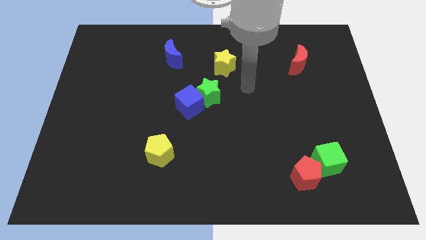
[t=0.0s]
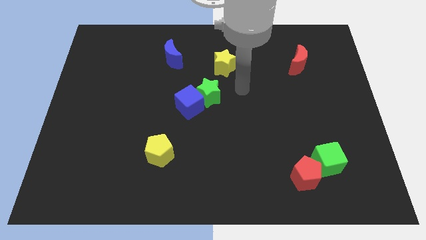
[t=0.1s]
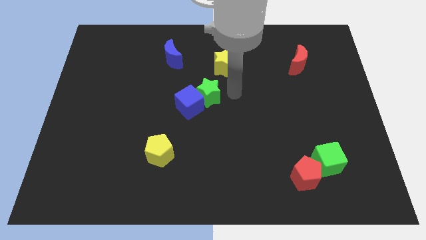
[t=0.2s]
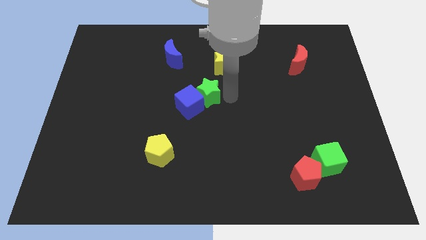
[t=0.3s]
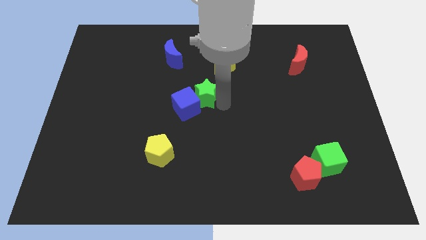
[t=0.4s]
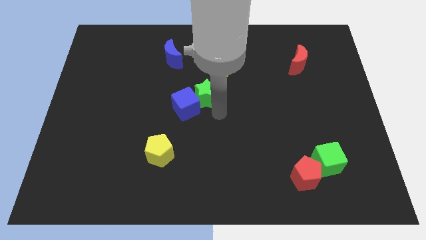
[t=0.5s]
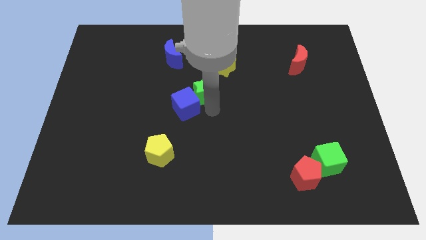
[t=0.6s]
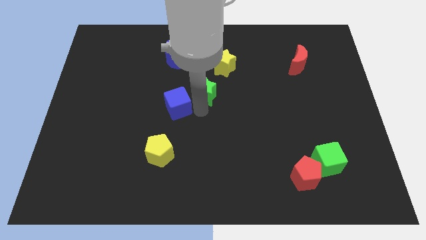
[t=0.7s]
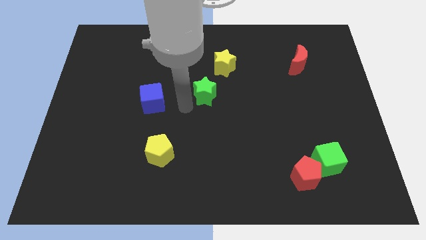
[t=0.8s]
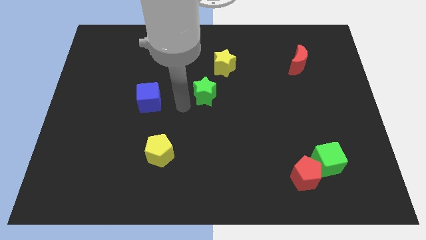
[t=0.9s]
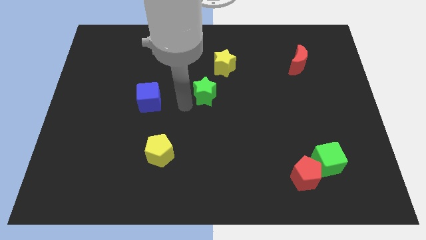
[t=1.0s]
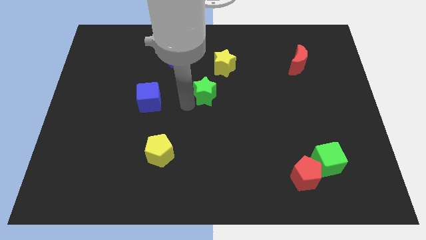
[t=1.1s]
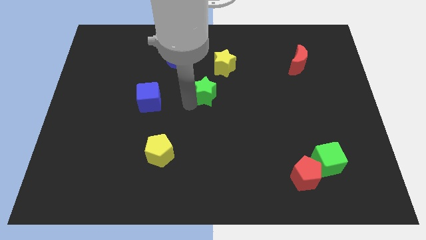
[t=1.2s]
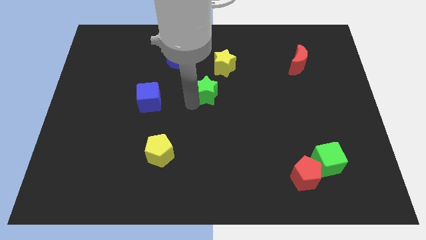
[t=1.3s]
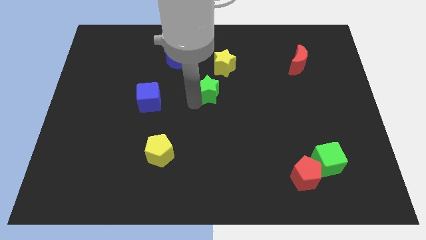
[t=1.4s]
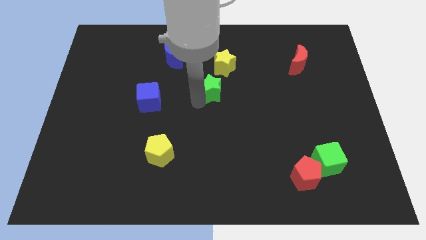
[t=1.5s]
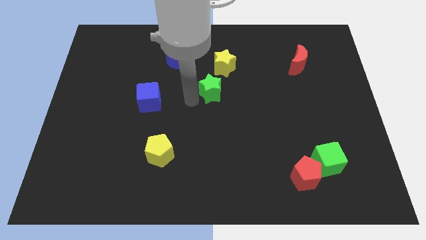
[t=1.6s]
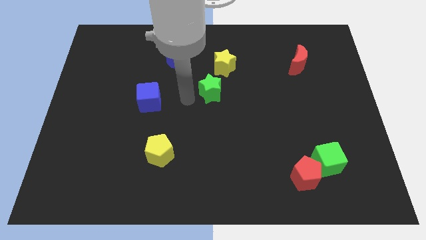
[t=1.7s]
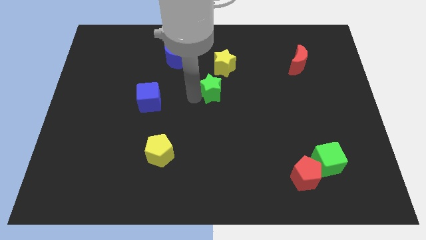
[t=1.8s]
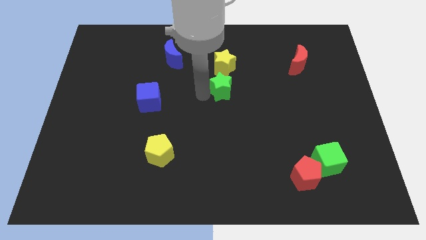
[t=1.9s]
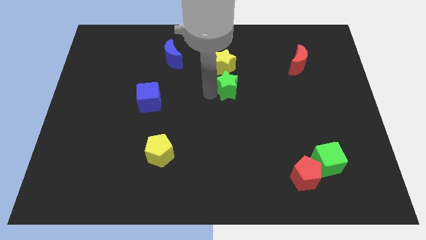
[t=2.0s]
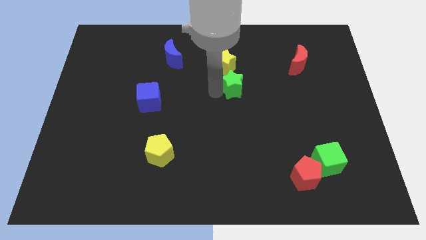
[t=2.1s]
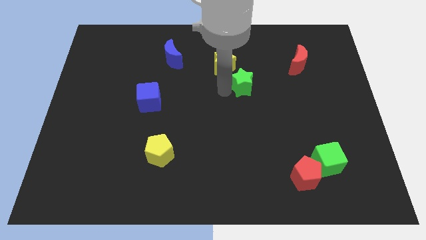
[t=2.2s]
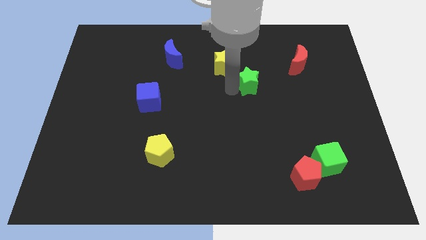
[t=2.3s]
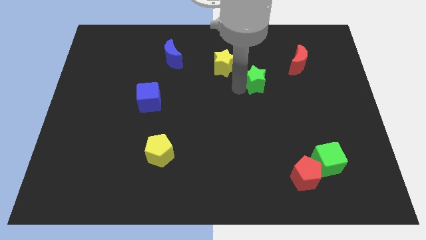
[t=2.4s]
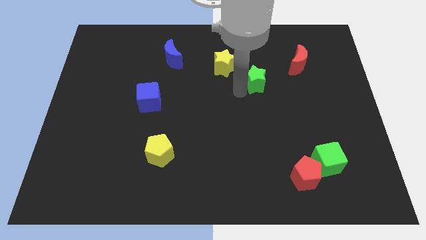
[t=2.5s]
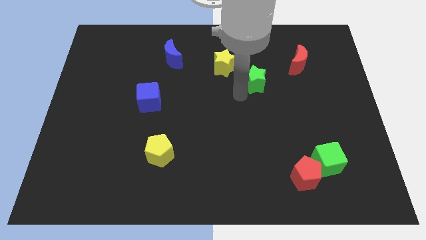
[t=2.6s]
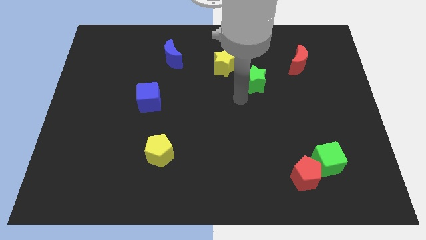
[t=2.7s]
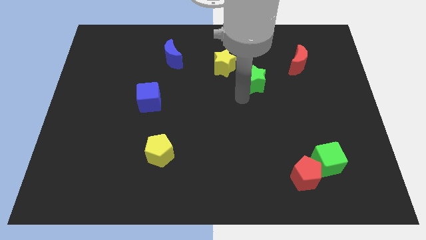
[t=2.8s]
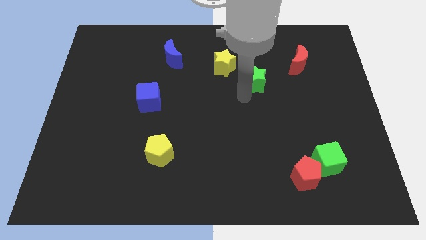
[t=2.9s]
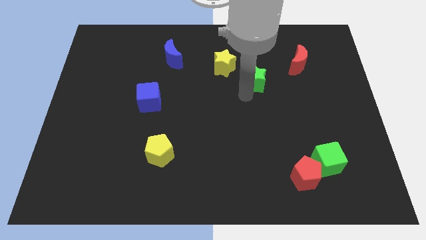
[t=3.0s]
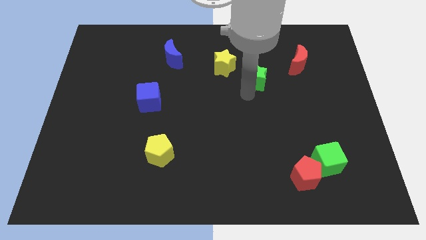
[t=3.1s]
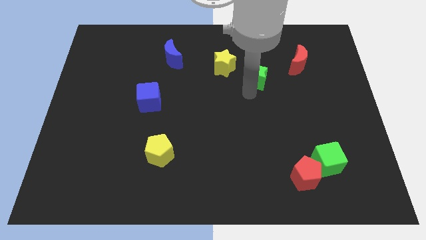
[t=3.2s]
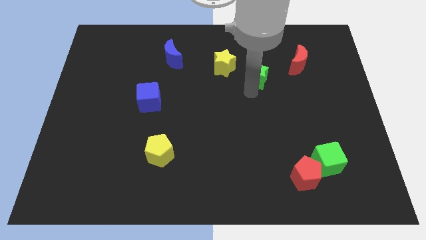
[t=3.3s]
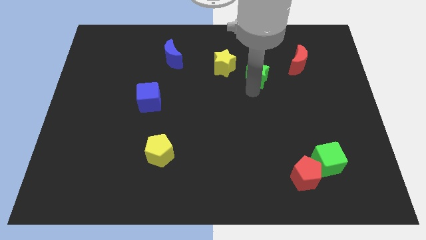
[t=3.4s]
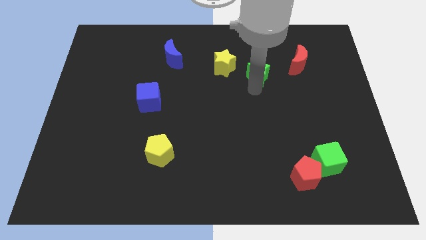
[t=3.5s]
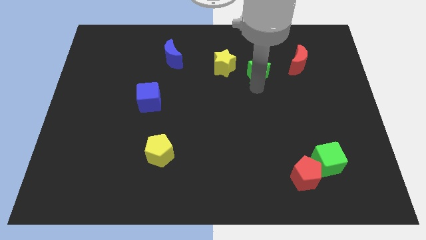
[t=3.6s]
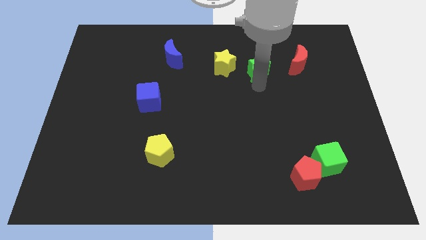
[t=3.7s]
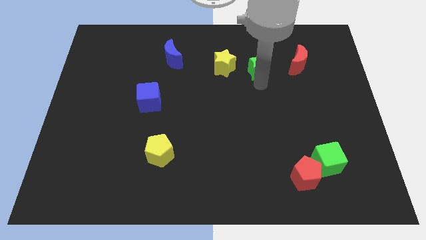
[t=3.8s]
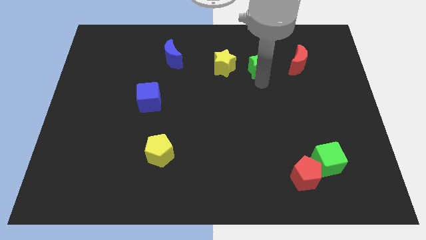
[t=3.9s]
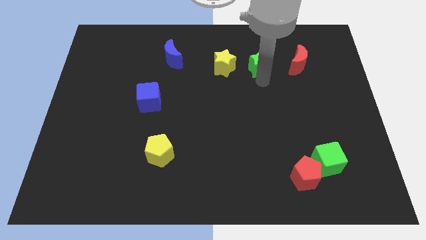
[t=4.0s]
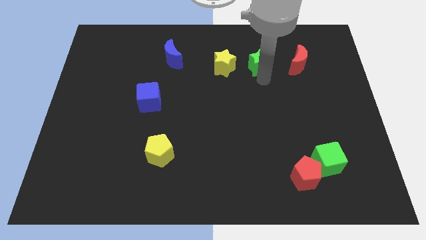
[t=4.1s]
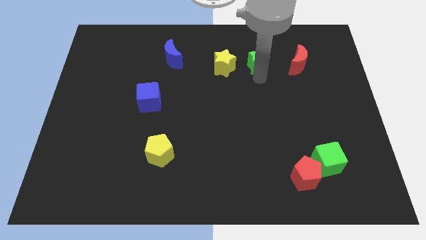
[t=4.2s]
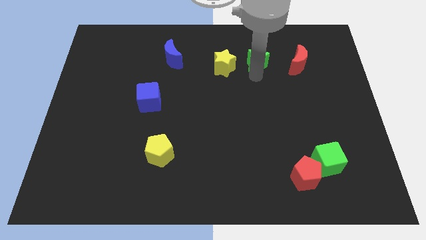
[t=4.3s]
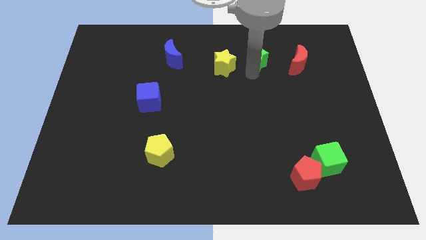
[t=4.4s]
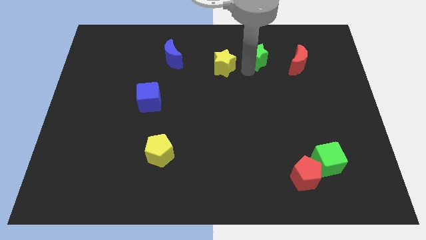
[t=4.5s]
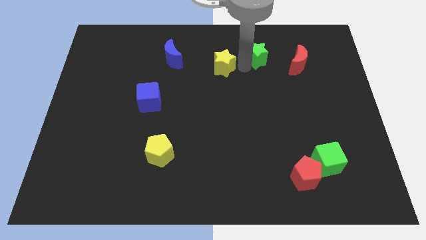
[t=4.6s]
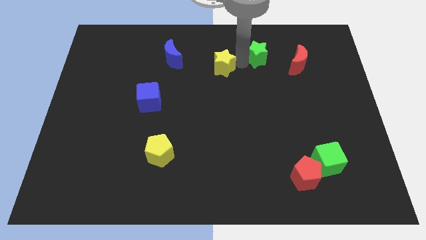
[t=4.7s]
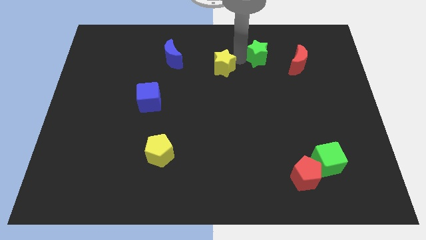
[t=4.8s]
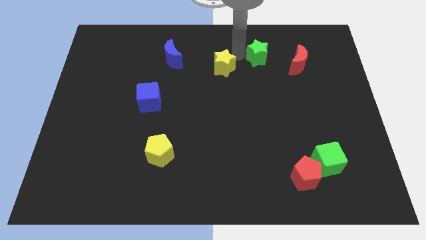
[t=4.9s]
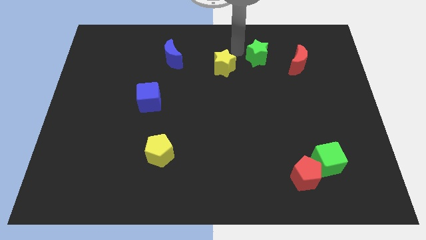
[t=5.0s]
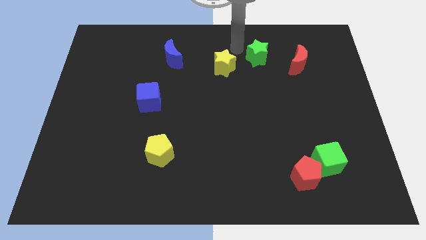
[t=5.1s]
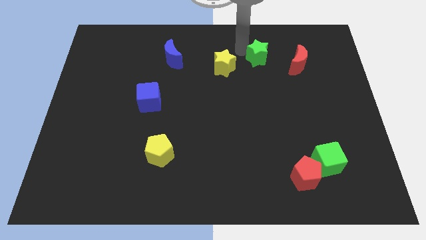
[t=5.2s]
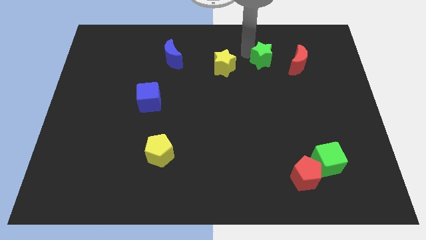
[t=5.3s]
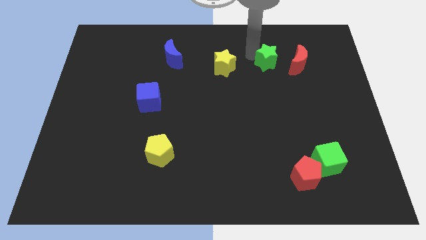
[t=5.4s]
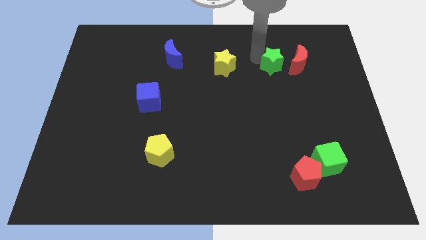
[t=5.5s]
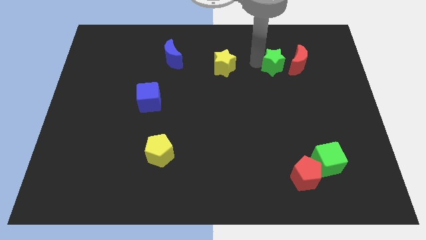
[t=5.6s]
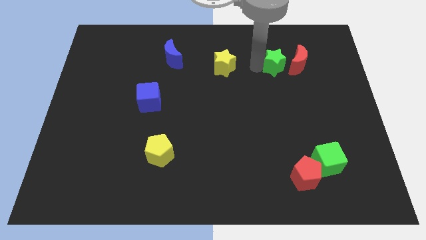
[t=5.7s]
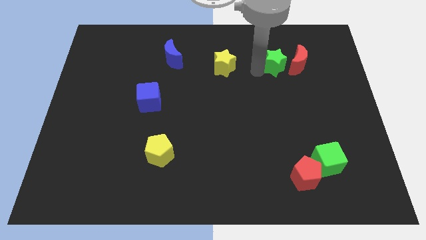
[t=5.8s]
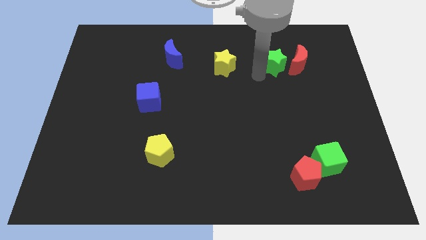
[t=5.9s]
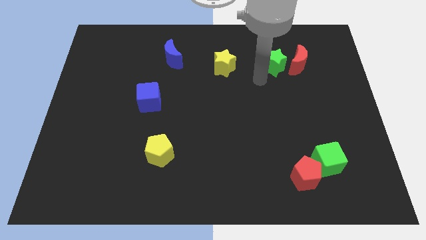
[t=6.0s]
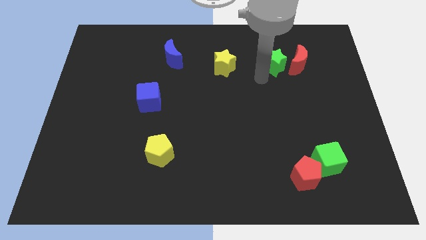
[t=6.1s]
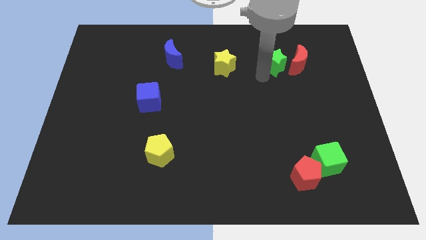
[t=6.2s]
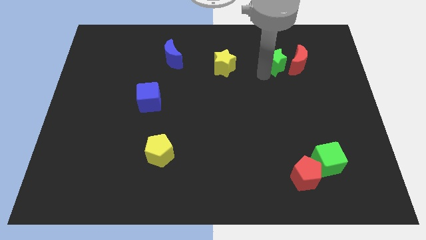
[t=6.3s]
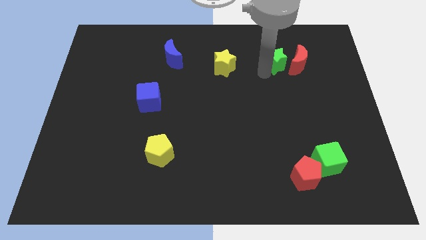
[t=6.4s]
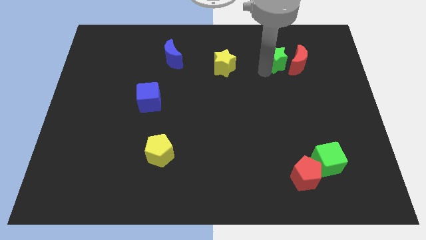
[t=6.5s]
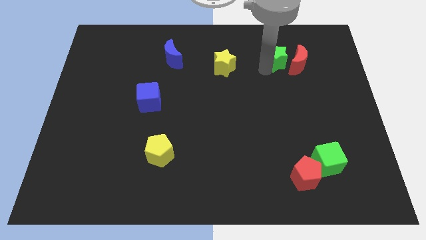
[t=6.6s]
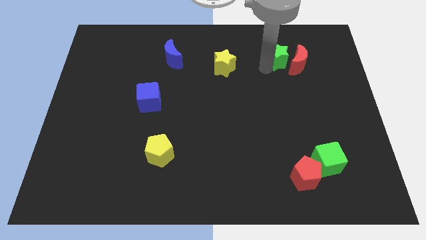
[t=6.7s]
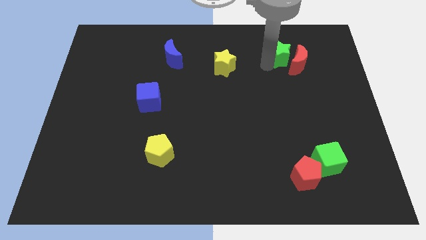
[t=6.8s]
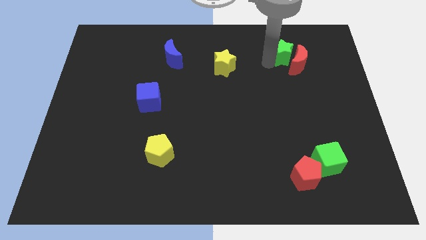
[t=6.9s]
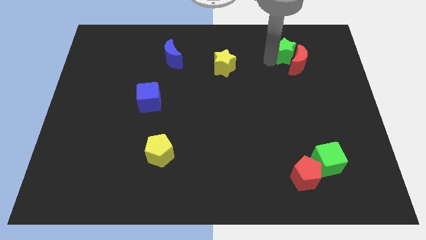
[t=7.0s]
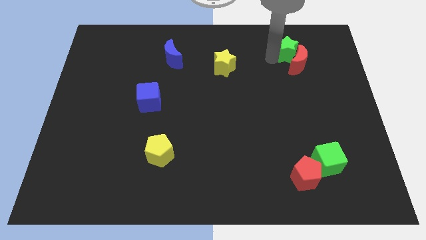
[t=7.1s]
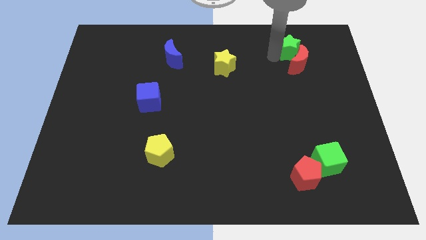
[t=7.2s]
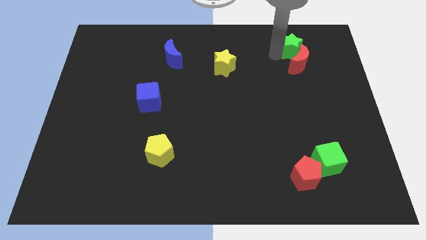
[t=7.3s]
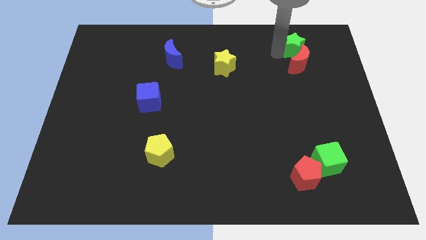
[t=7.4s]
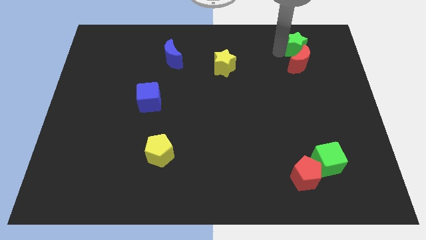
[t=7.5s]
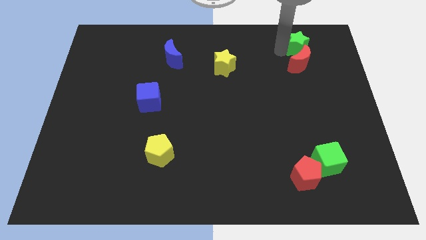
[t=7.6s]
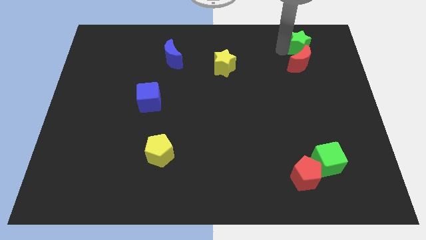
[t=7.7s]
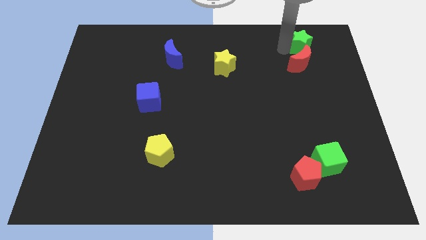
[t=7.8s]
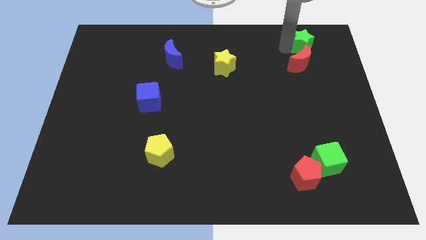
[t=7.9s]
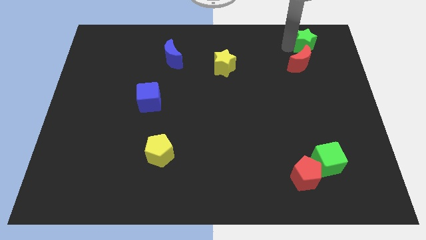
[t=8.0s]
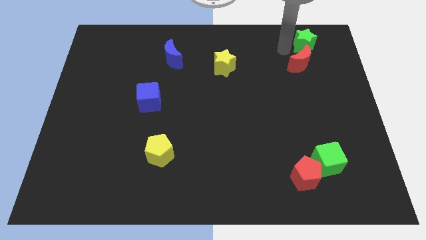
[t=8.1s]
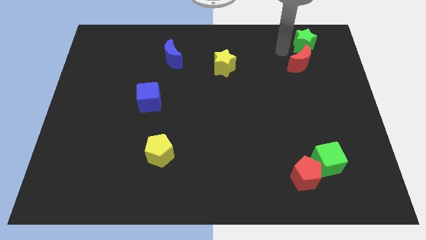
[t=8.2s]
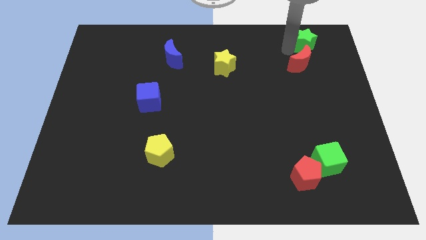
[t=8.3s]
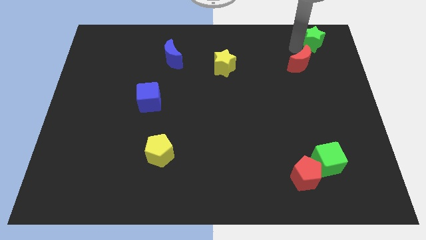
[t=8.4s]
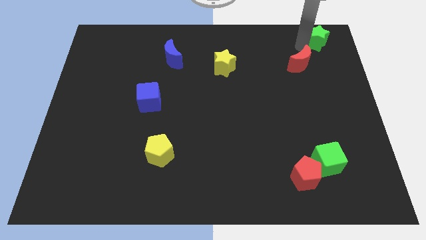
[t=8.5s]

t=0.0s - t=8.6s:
slide the green star to the top right corner
